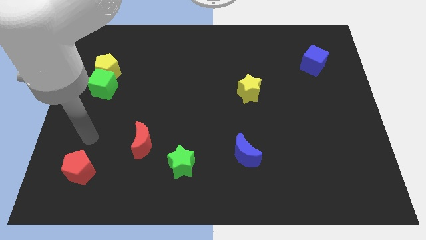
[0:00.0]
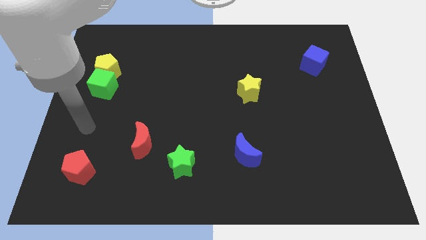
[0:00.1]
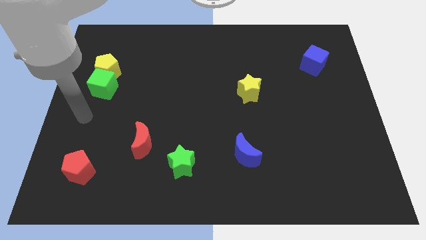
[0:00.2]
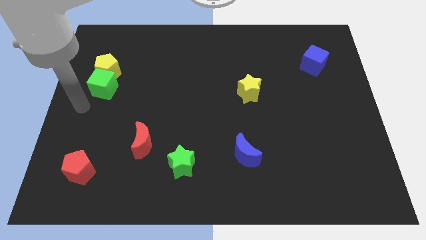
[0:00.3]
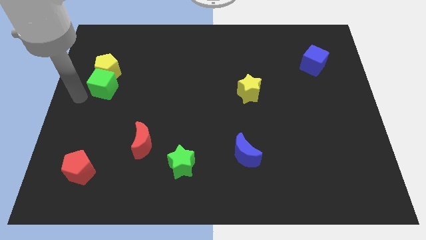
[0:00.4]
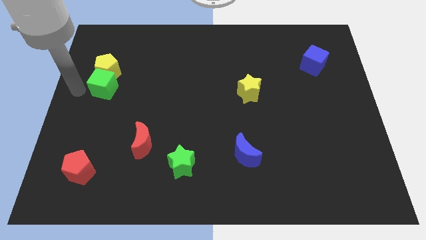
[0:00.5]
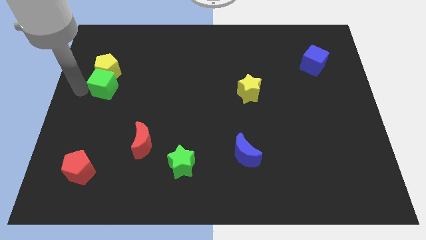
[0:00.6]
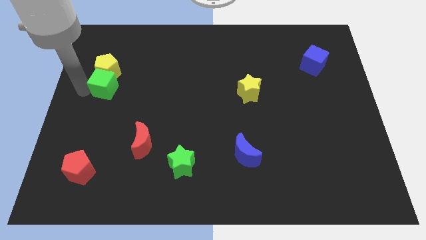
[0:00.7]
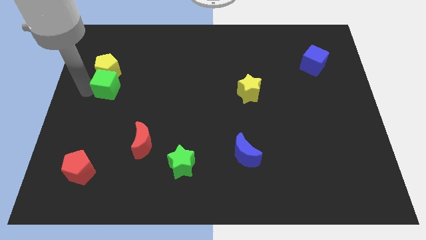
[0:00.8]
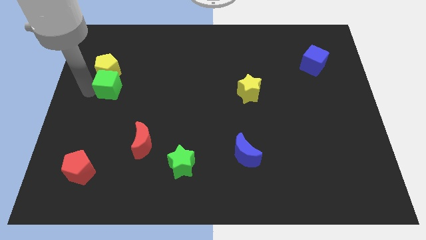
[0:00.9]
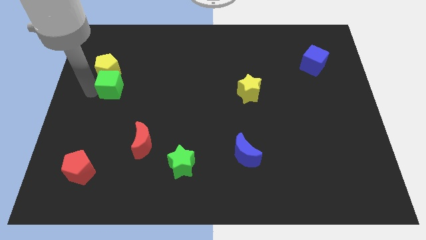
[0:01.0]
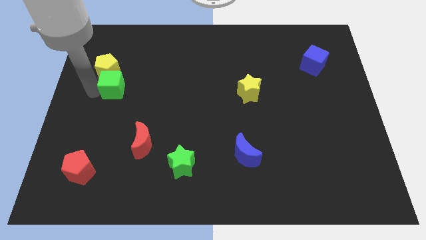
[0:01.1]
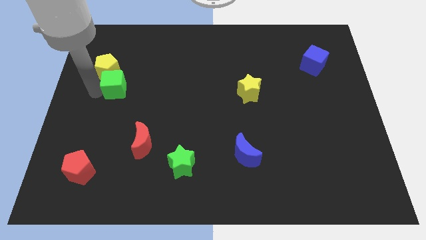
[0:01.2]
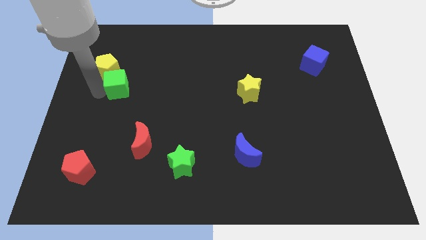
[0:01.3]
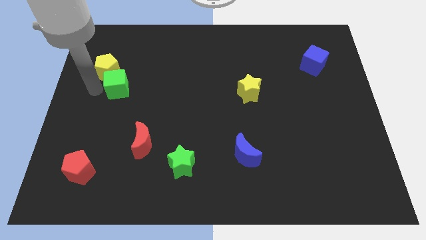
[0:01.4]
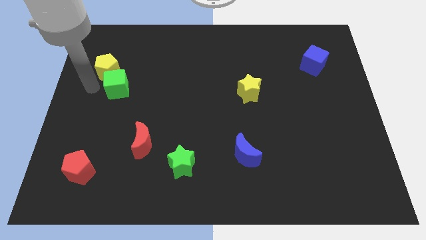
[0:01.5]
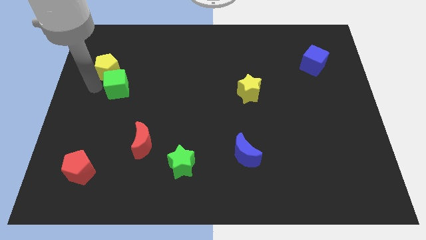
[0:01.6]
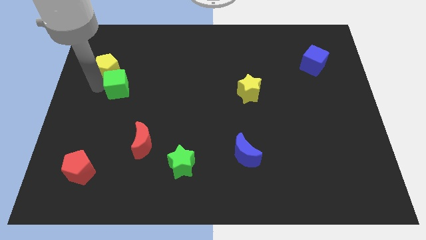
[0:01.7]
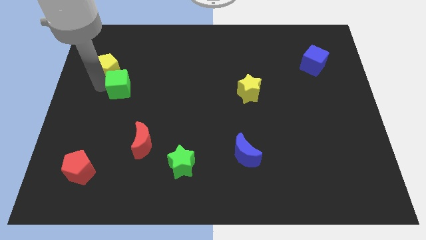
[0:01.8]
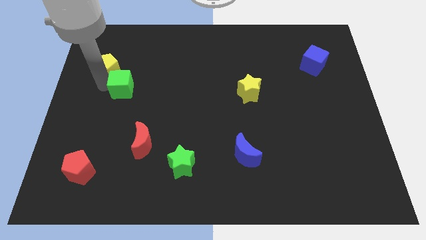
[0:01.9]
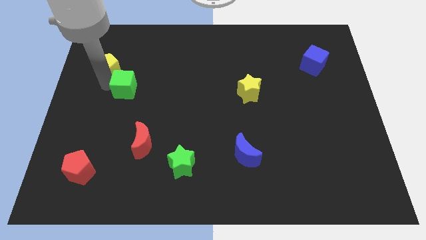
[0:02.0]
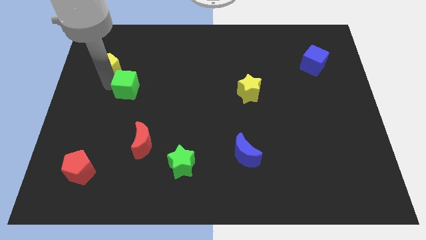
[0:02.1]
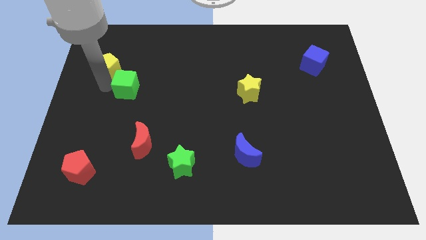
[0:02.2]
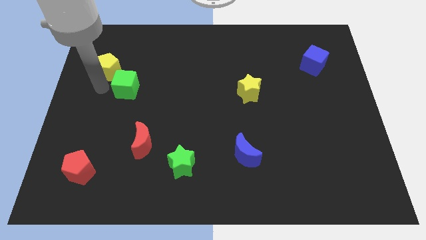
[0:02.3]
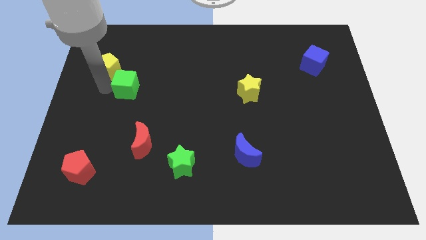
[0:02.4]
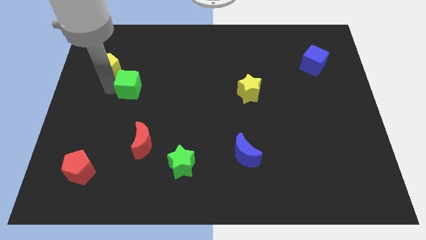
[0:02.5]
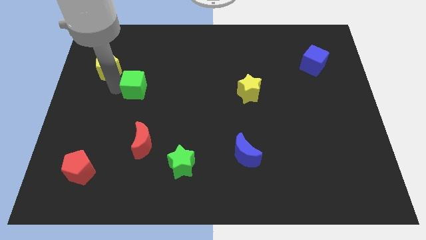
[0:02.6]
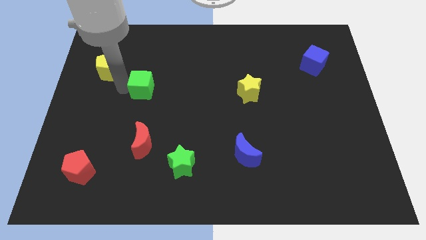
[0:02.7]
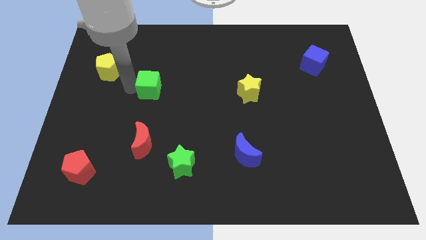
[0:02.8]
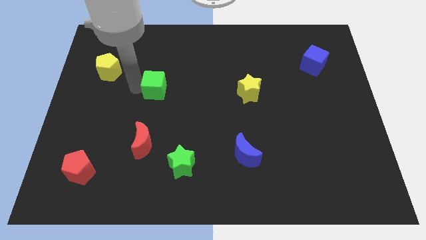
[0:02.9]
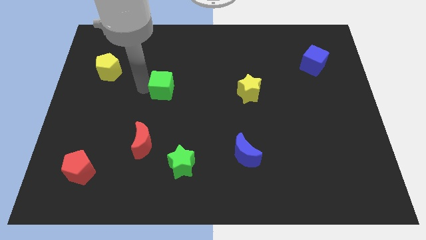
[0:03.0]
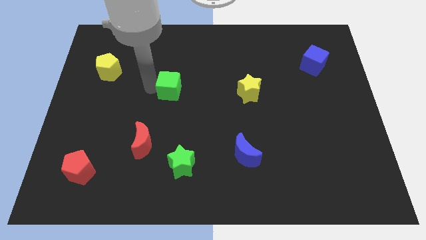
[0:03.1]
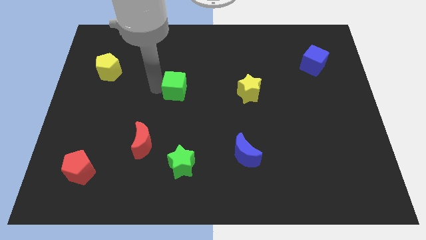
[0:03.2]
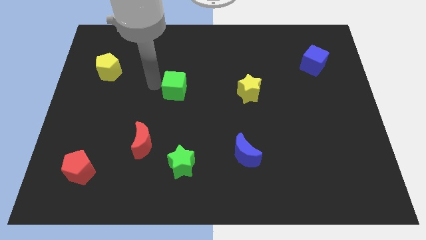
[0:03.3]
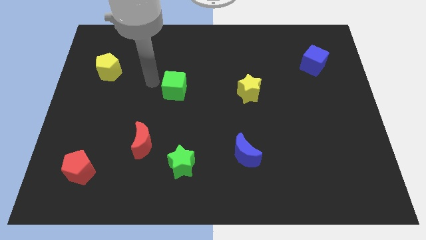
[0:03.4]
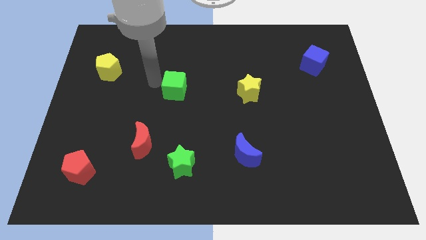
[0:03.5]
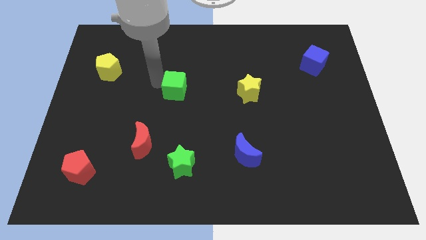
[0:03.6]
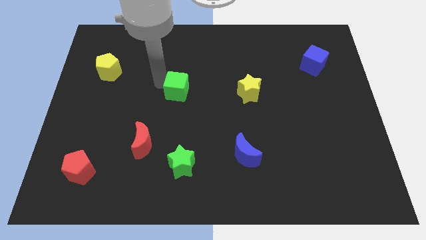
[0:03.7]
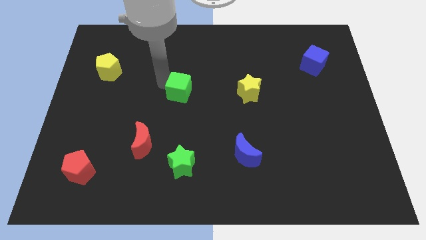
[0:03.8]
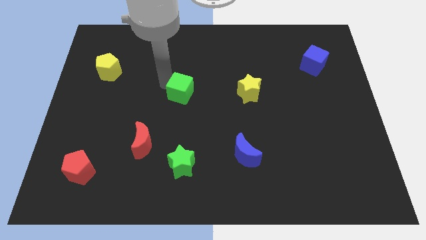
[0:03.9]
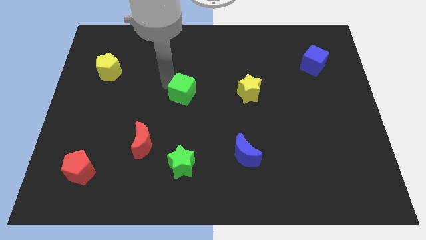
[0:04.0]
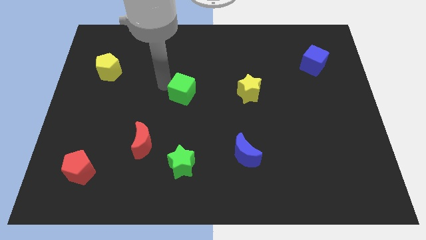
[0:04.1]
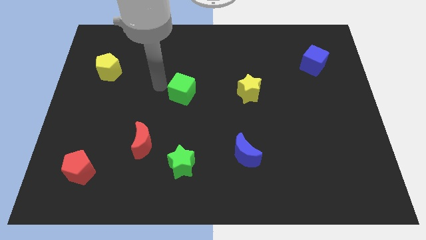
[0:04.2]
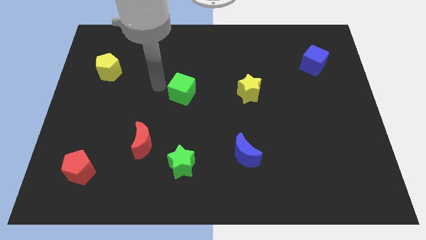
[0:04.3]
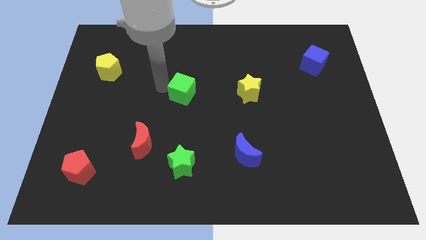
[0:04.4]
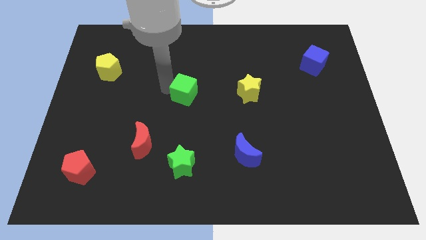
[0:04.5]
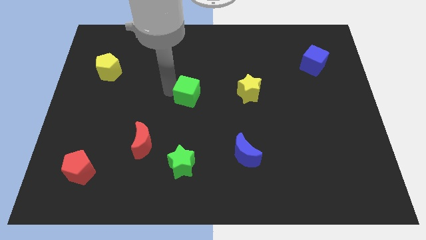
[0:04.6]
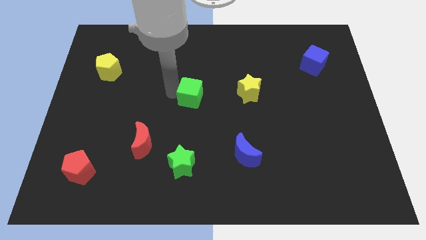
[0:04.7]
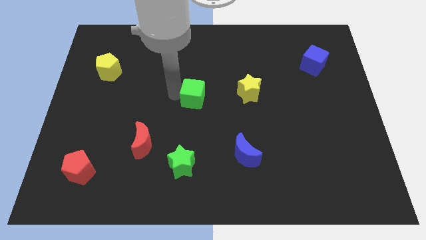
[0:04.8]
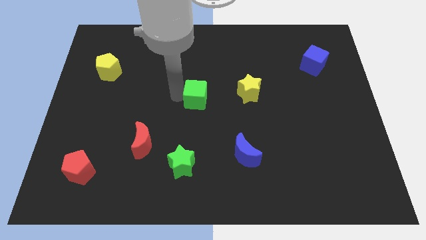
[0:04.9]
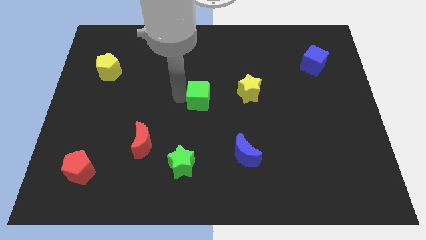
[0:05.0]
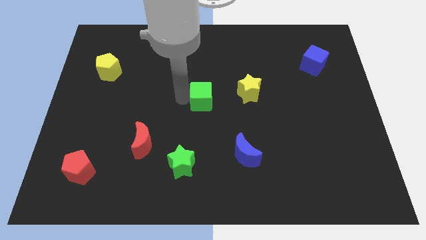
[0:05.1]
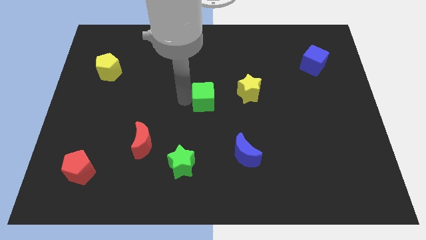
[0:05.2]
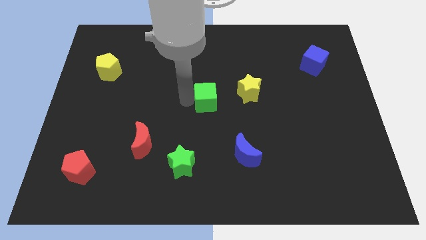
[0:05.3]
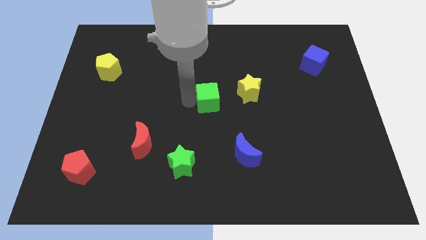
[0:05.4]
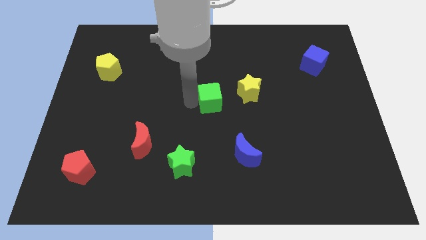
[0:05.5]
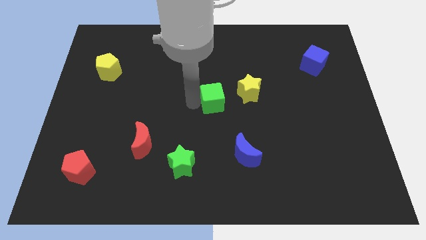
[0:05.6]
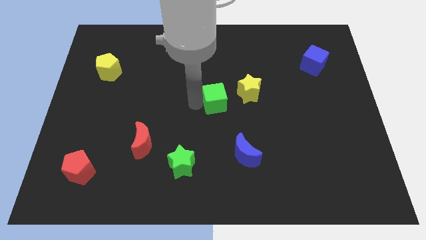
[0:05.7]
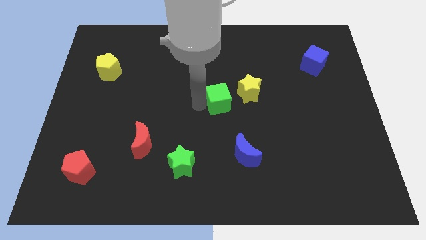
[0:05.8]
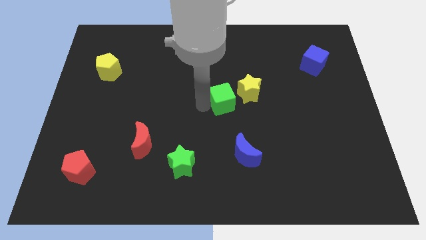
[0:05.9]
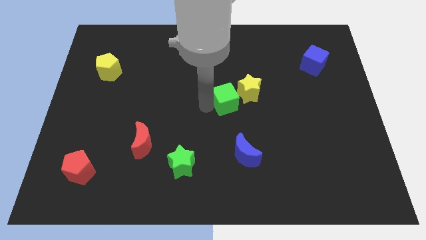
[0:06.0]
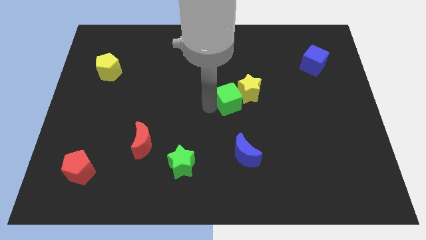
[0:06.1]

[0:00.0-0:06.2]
slide the green cube towards the yellow star

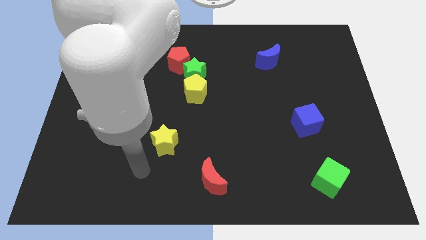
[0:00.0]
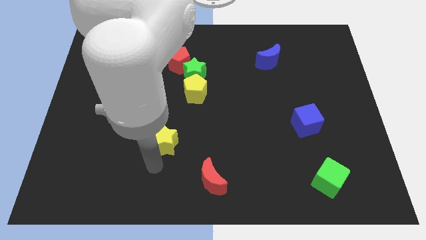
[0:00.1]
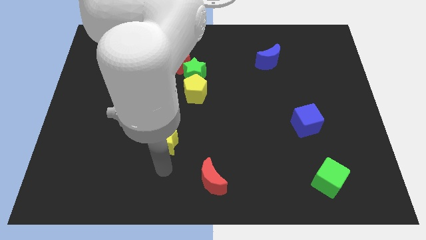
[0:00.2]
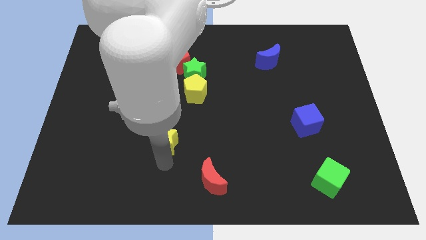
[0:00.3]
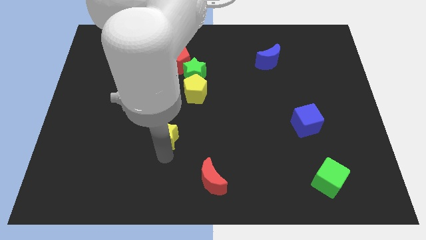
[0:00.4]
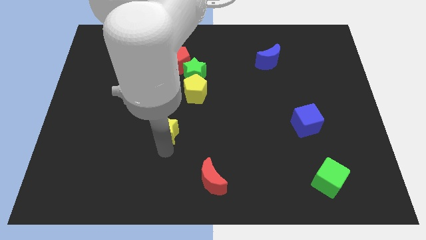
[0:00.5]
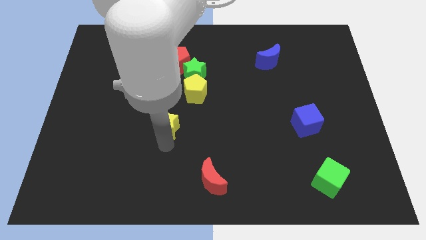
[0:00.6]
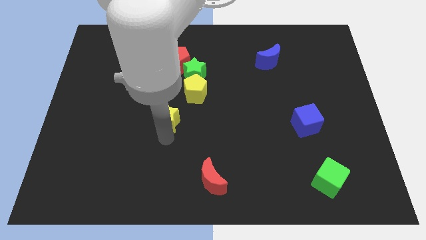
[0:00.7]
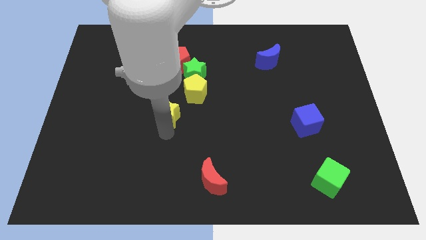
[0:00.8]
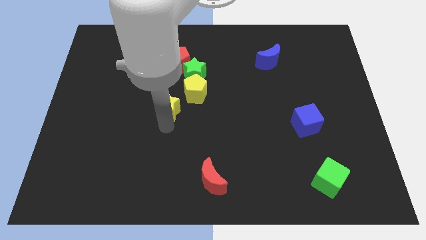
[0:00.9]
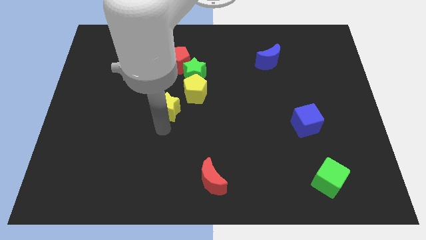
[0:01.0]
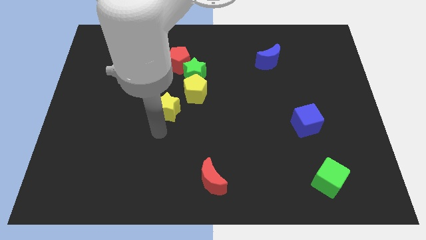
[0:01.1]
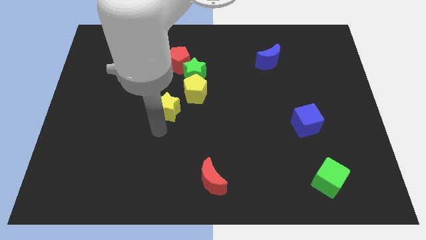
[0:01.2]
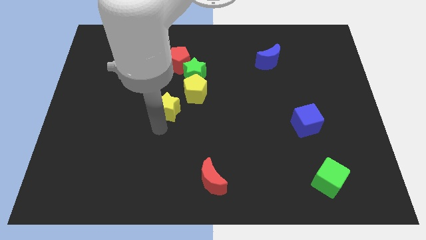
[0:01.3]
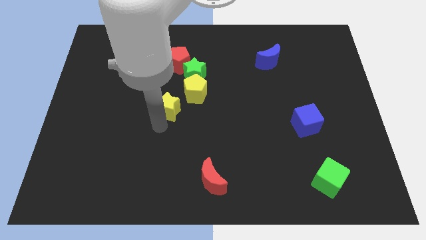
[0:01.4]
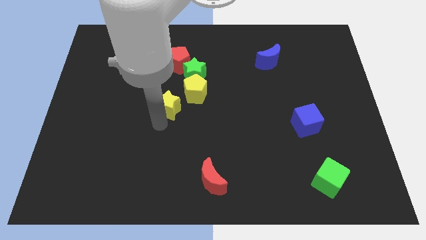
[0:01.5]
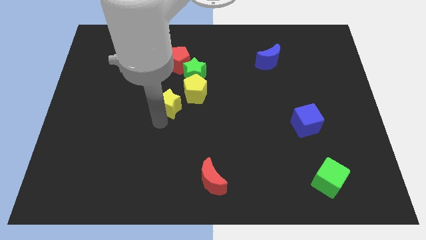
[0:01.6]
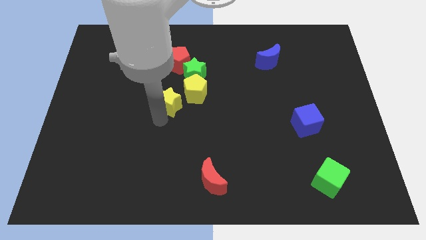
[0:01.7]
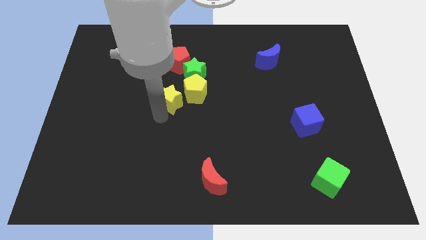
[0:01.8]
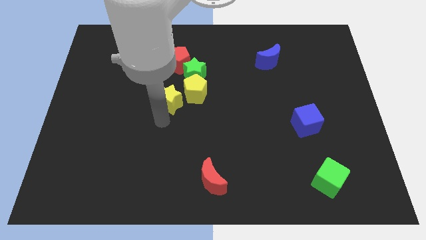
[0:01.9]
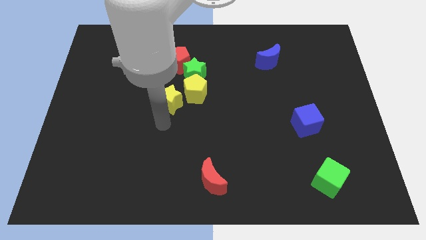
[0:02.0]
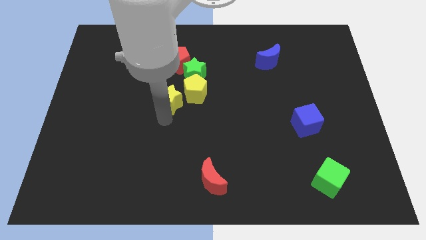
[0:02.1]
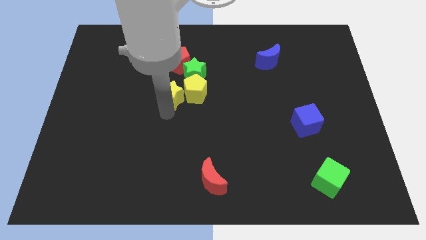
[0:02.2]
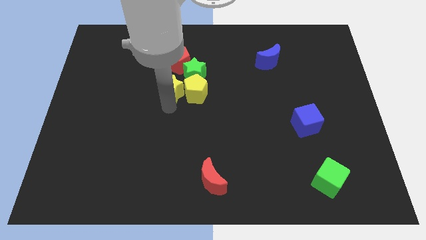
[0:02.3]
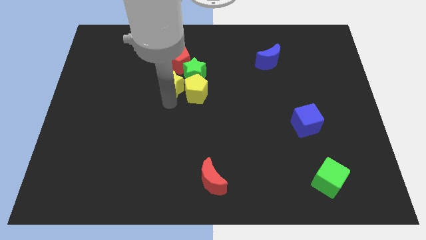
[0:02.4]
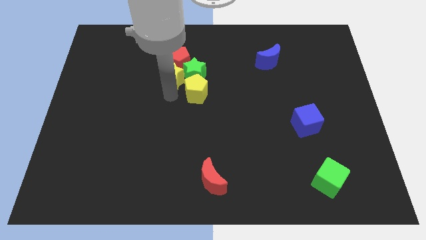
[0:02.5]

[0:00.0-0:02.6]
put the yellow star to the red pentagon
